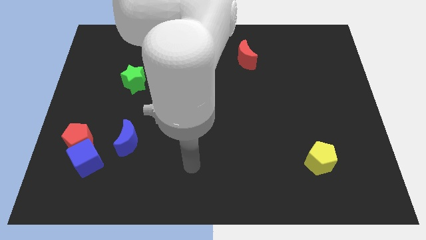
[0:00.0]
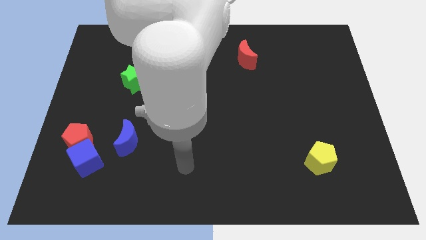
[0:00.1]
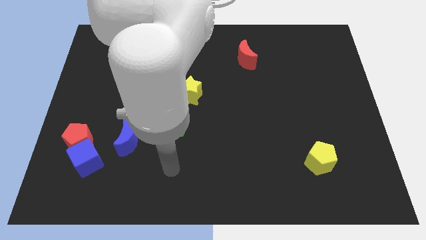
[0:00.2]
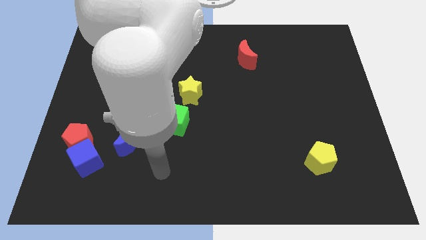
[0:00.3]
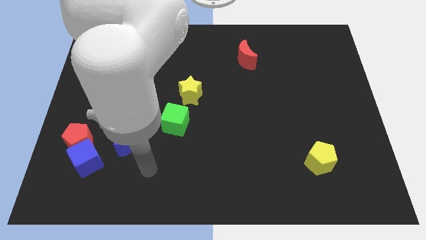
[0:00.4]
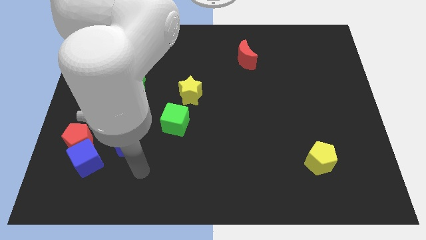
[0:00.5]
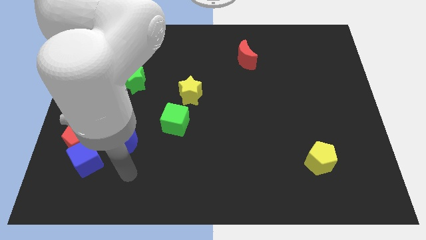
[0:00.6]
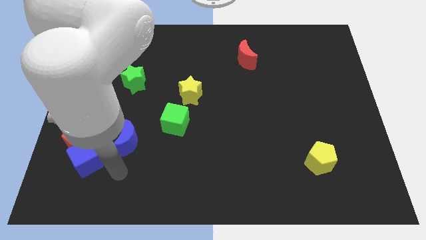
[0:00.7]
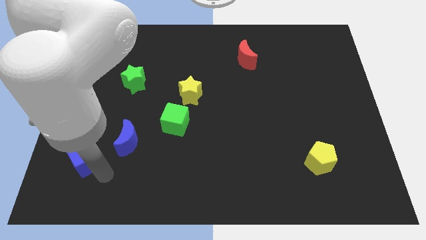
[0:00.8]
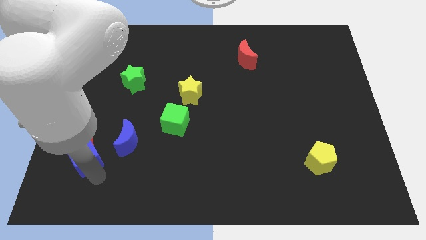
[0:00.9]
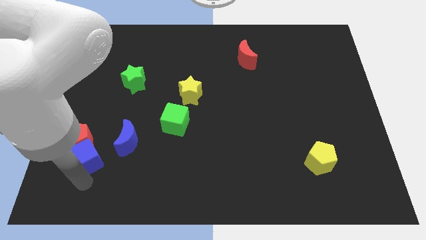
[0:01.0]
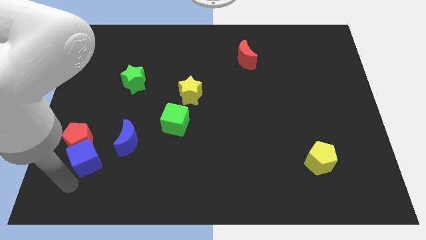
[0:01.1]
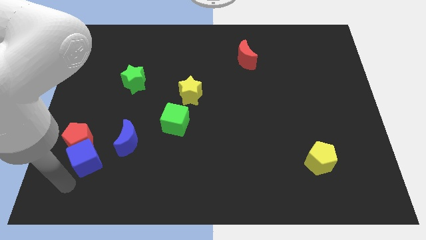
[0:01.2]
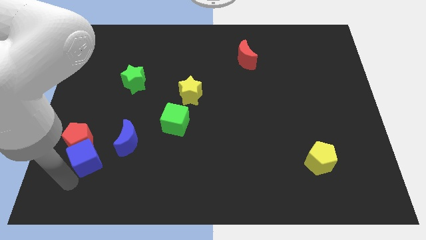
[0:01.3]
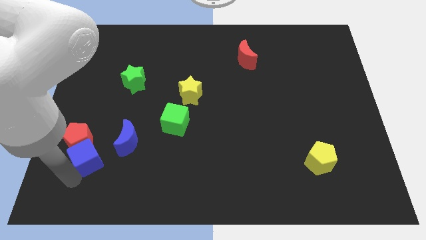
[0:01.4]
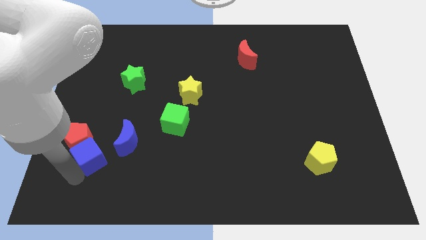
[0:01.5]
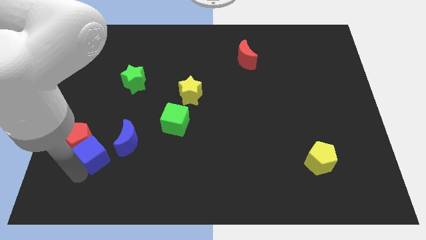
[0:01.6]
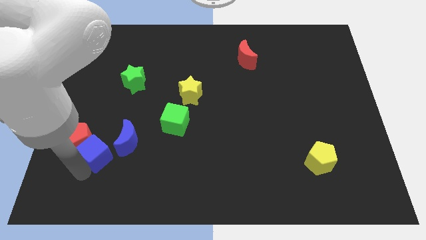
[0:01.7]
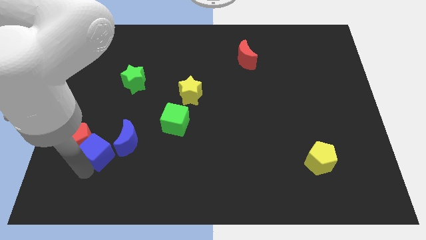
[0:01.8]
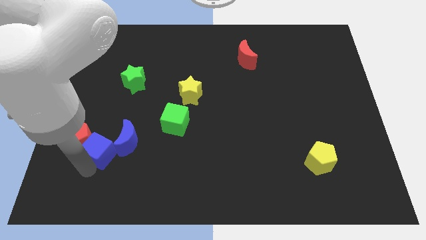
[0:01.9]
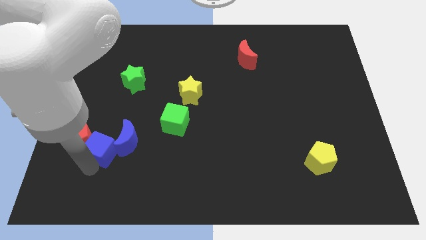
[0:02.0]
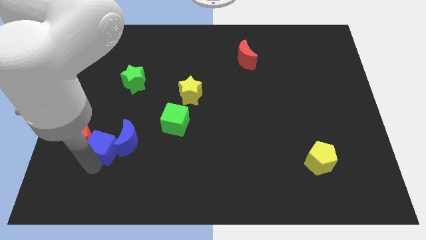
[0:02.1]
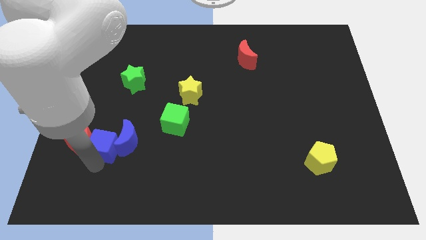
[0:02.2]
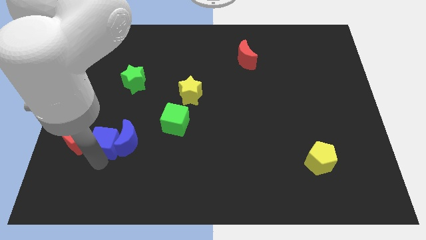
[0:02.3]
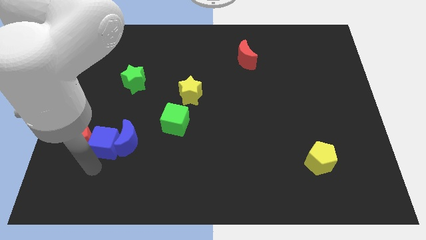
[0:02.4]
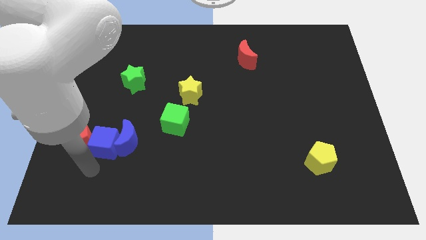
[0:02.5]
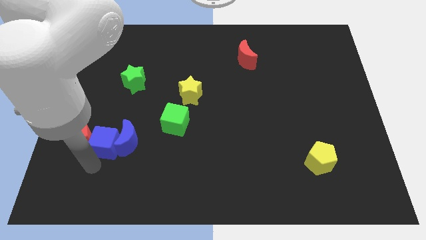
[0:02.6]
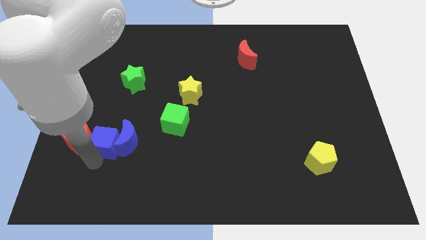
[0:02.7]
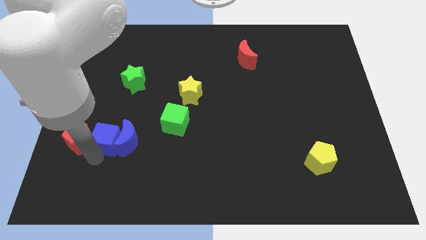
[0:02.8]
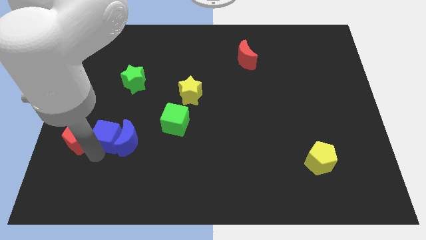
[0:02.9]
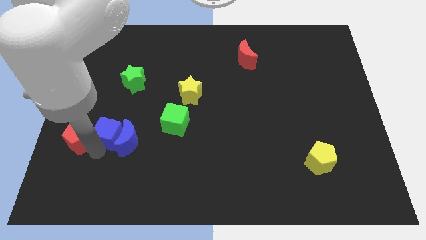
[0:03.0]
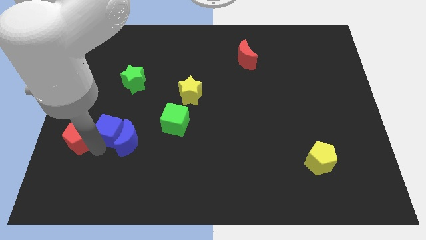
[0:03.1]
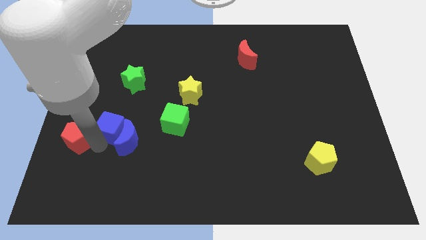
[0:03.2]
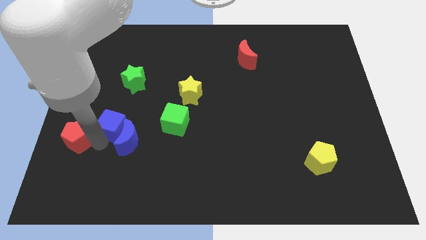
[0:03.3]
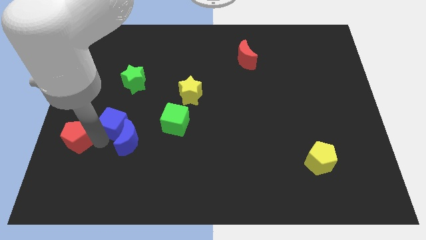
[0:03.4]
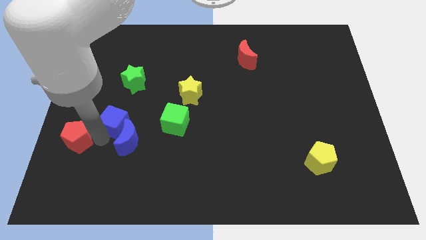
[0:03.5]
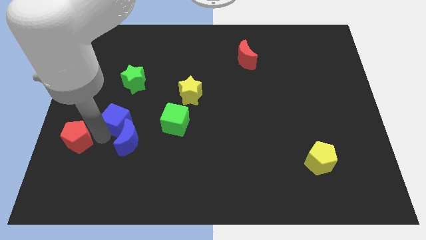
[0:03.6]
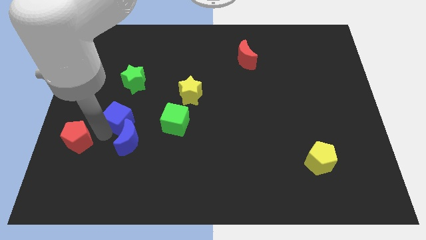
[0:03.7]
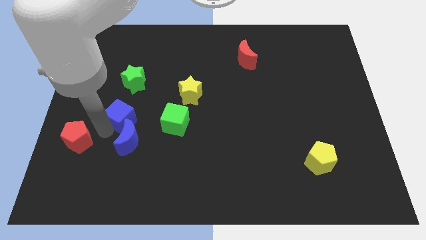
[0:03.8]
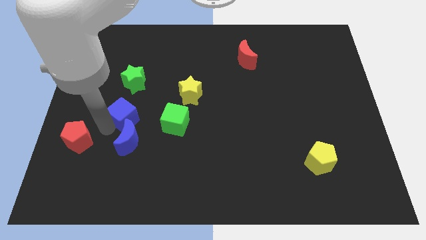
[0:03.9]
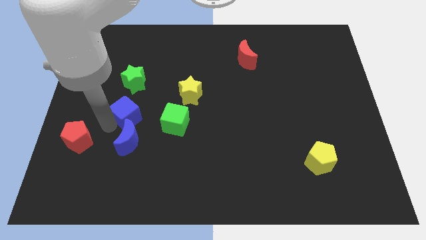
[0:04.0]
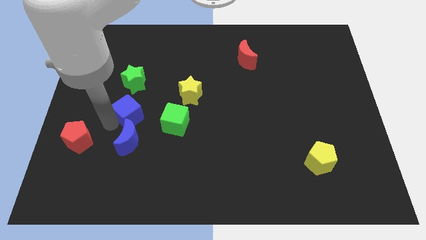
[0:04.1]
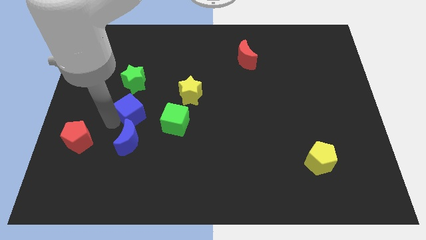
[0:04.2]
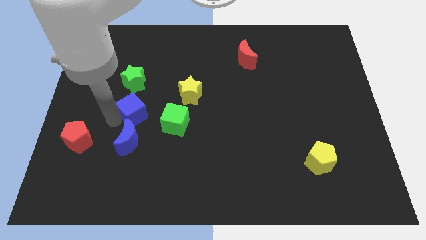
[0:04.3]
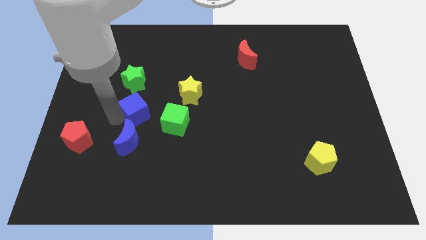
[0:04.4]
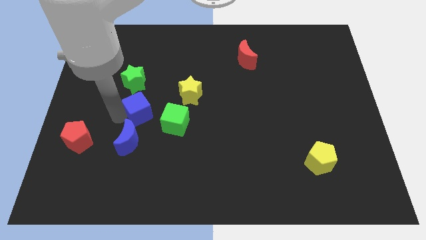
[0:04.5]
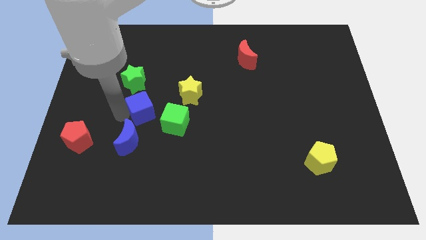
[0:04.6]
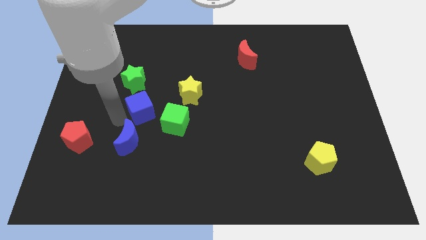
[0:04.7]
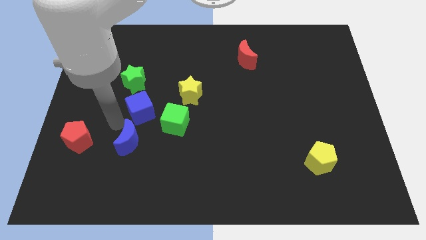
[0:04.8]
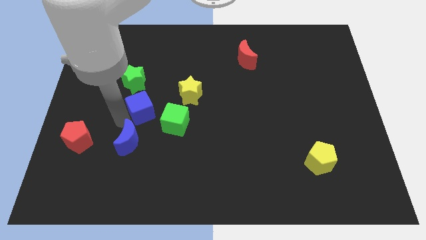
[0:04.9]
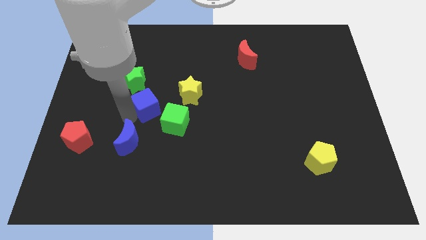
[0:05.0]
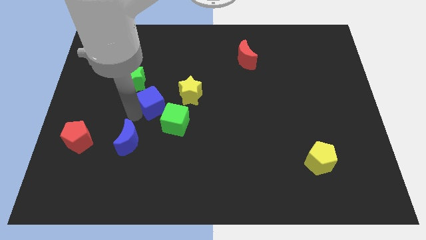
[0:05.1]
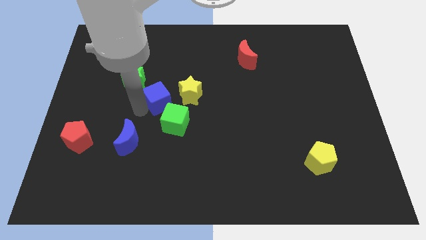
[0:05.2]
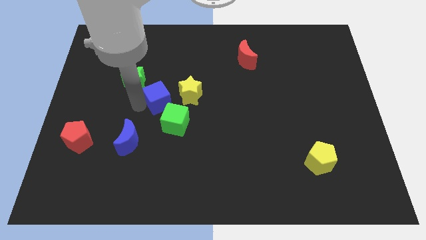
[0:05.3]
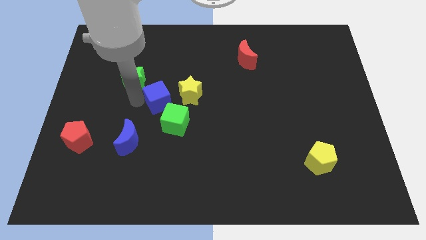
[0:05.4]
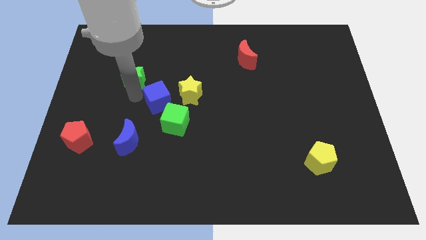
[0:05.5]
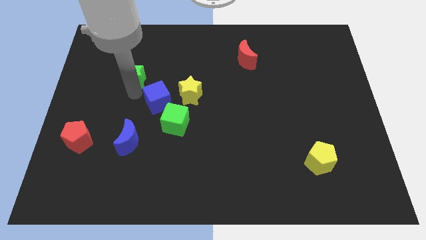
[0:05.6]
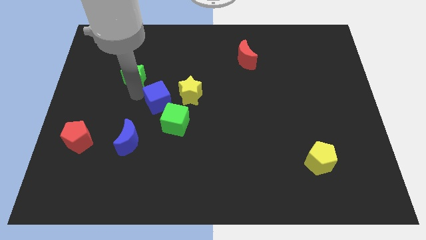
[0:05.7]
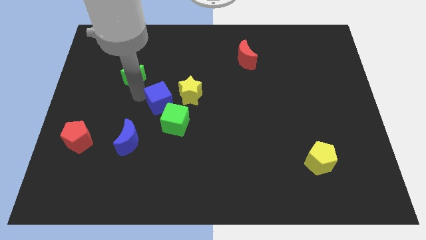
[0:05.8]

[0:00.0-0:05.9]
move the blue cube to the center

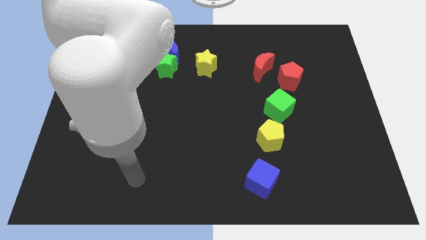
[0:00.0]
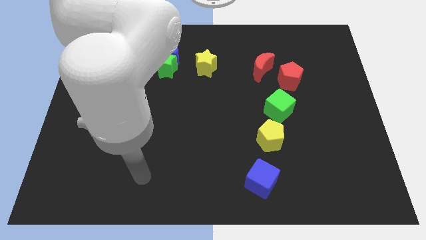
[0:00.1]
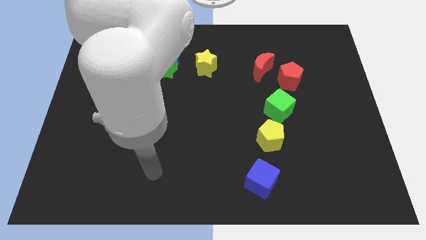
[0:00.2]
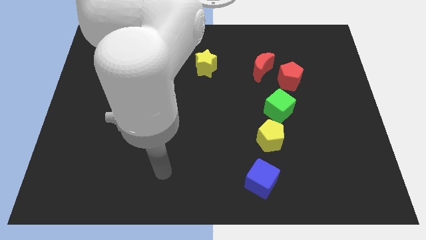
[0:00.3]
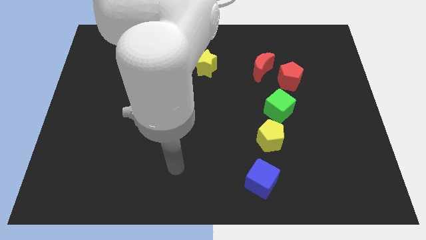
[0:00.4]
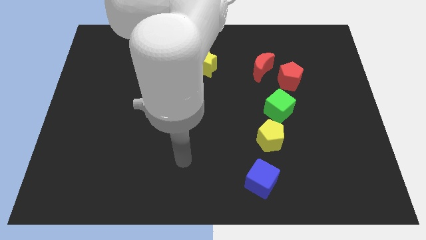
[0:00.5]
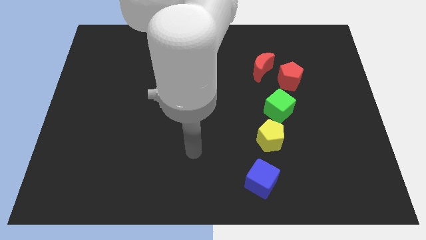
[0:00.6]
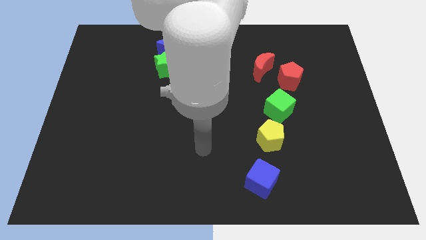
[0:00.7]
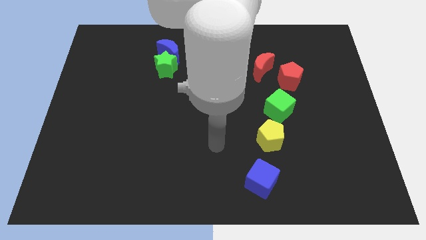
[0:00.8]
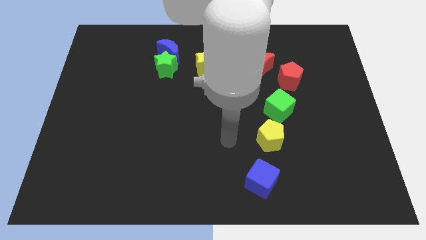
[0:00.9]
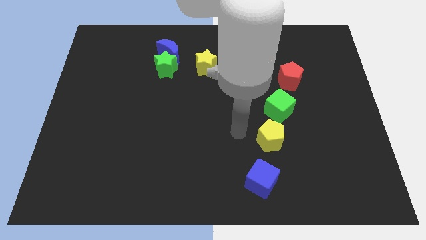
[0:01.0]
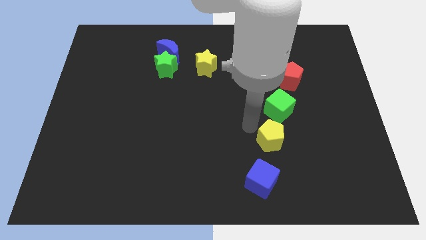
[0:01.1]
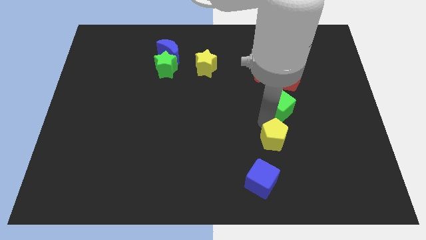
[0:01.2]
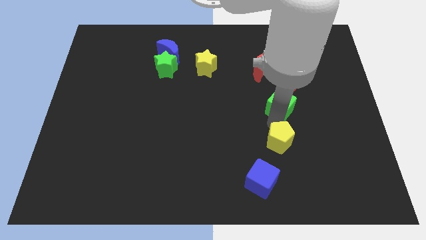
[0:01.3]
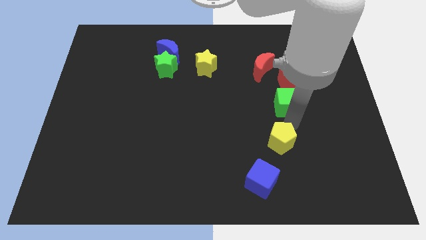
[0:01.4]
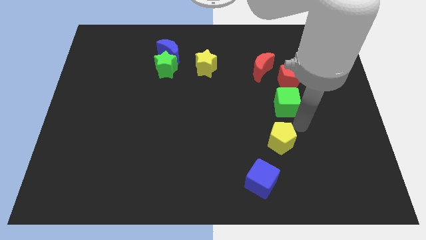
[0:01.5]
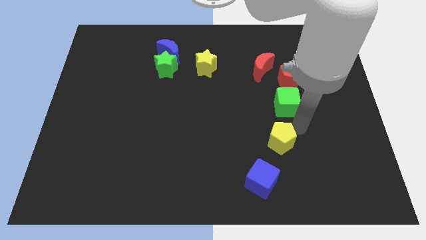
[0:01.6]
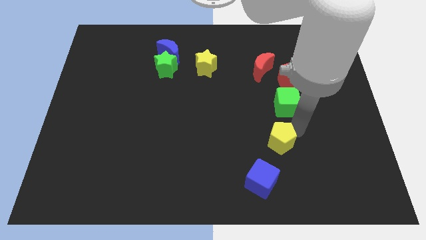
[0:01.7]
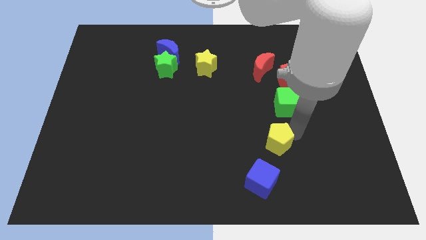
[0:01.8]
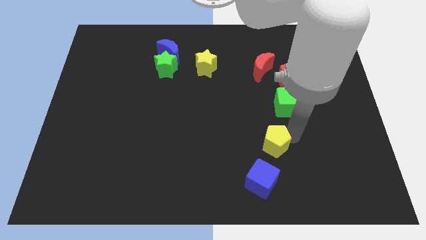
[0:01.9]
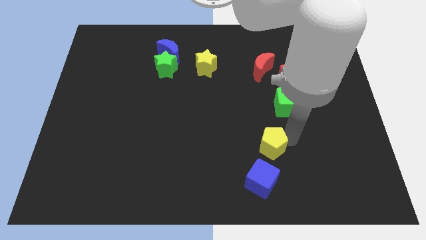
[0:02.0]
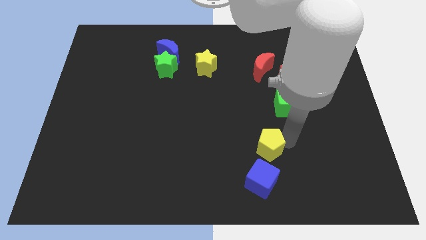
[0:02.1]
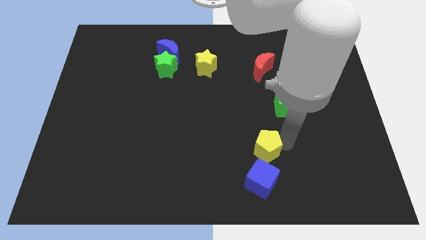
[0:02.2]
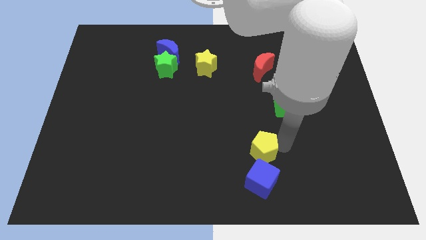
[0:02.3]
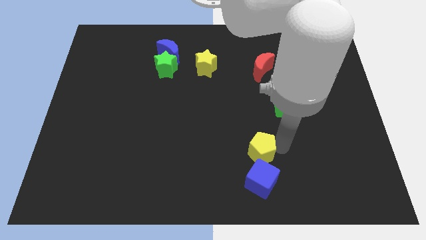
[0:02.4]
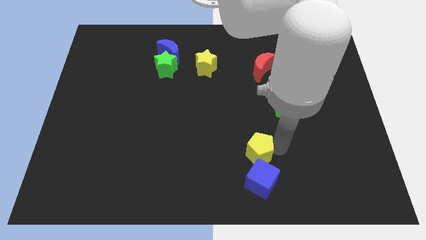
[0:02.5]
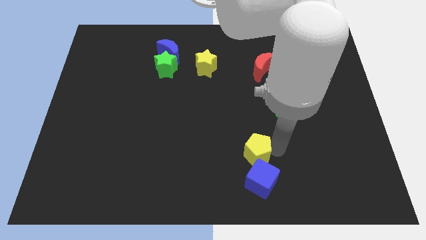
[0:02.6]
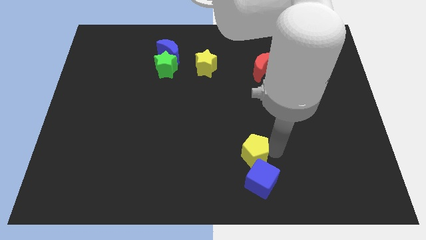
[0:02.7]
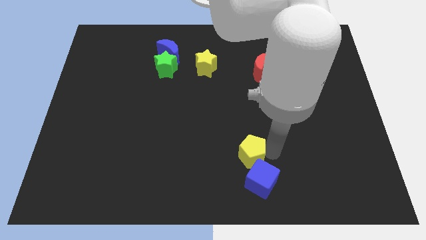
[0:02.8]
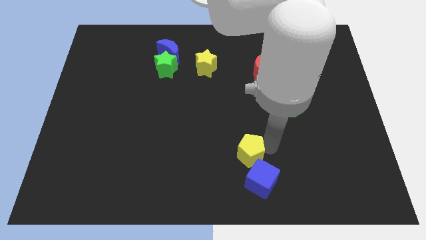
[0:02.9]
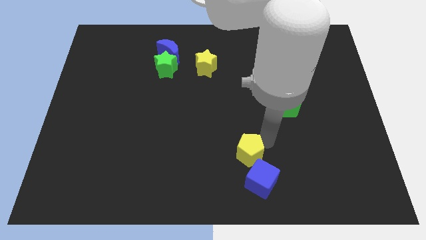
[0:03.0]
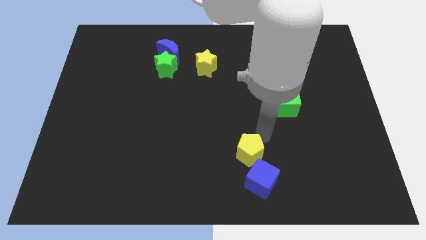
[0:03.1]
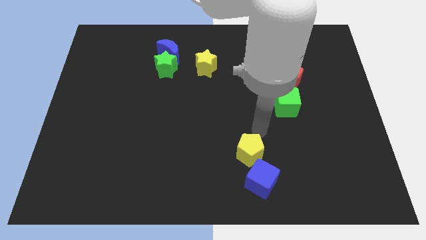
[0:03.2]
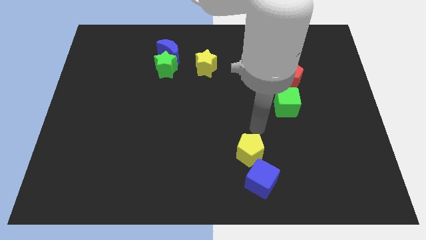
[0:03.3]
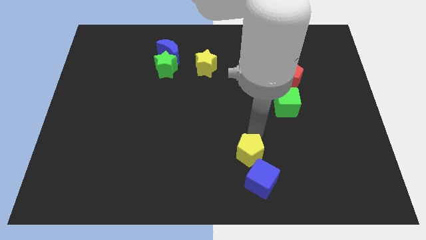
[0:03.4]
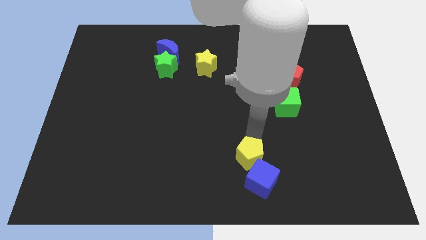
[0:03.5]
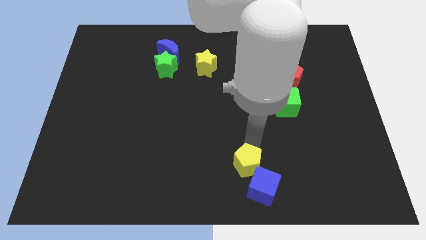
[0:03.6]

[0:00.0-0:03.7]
put the yellow pentagon to the bottom
